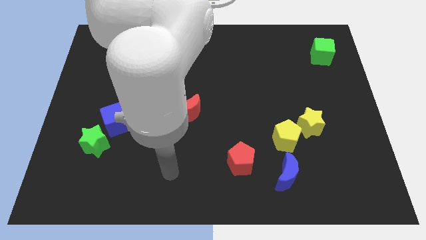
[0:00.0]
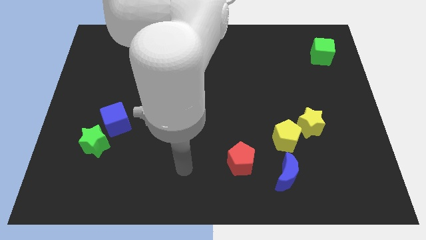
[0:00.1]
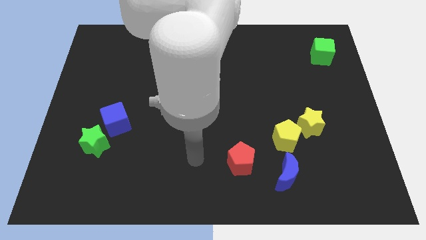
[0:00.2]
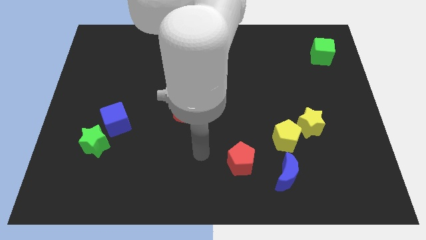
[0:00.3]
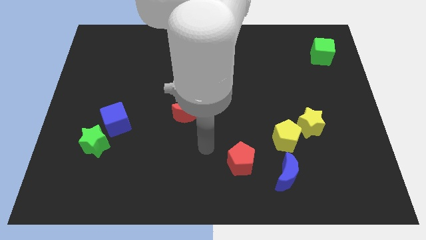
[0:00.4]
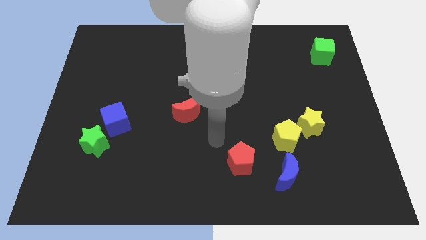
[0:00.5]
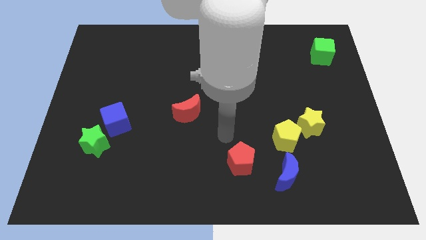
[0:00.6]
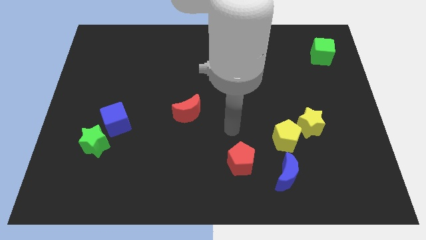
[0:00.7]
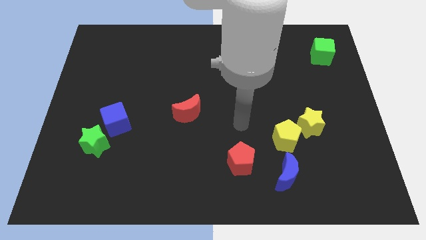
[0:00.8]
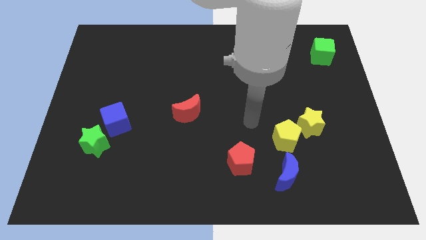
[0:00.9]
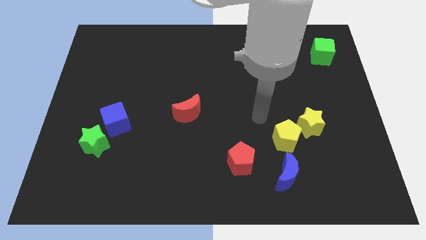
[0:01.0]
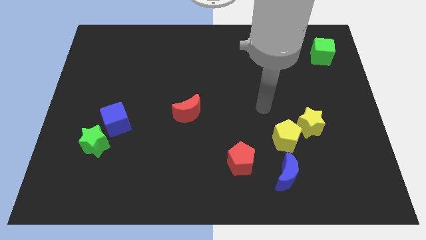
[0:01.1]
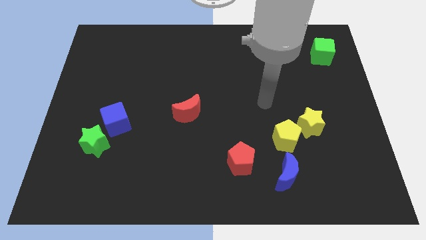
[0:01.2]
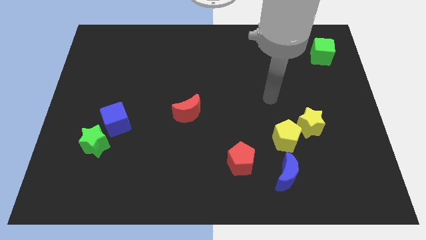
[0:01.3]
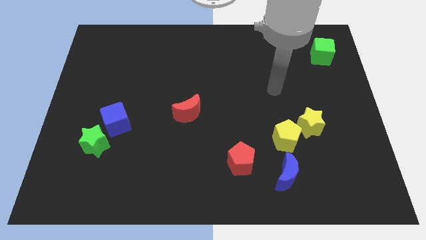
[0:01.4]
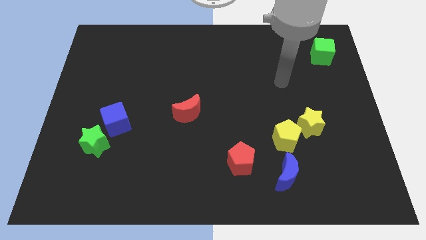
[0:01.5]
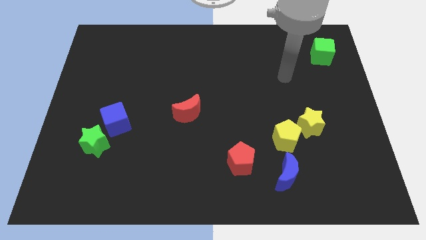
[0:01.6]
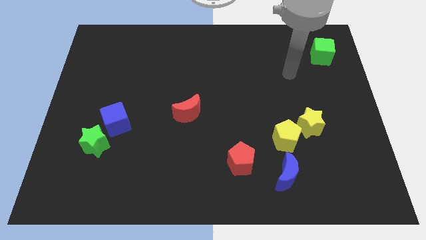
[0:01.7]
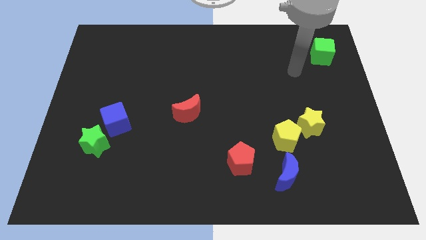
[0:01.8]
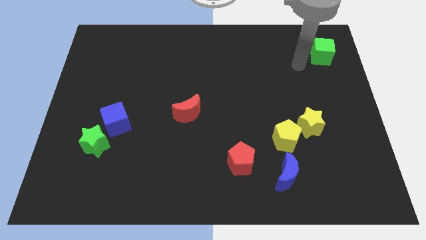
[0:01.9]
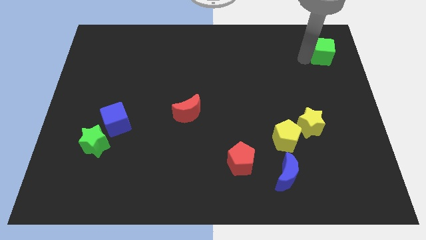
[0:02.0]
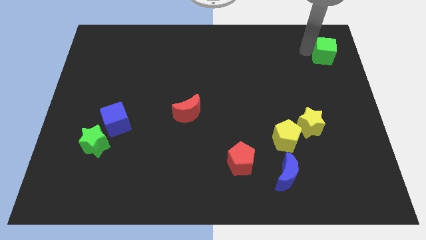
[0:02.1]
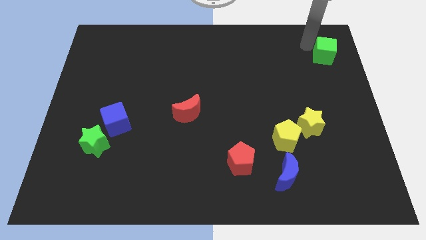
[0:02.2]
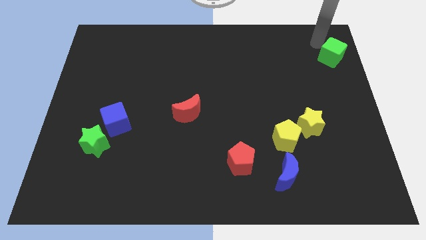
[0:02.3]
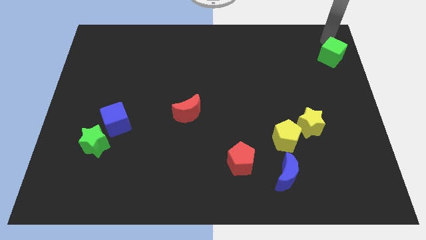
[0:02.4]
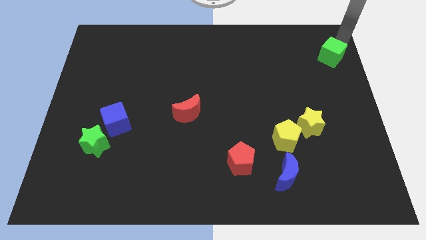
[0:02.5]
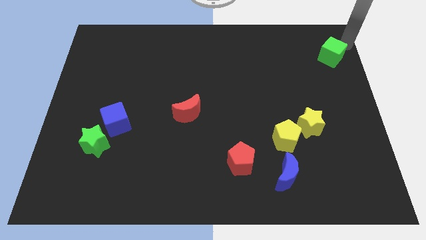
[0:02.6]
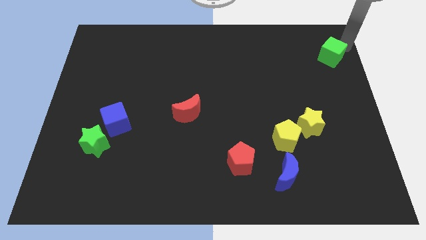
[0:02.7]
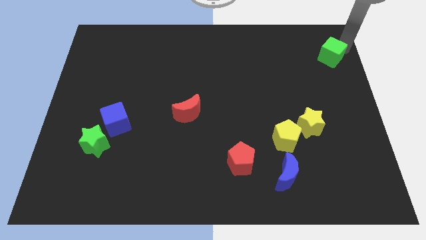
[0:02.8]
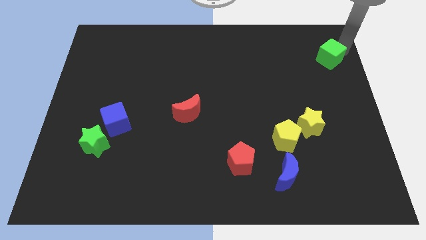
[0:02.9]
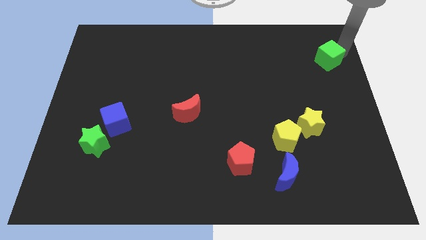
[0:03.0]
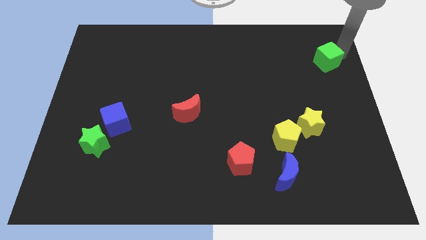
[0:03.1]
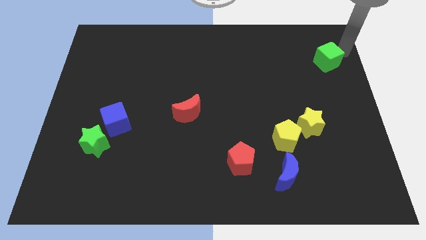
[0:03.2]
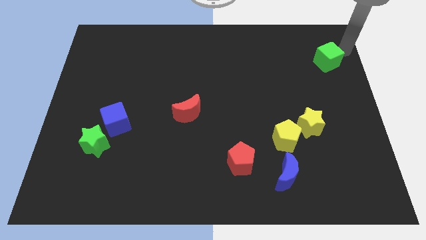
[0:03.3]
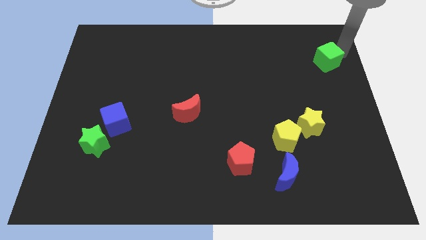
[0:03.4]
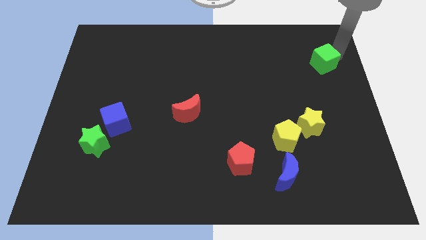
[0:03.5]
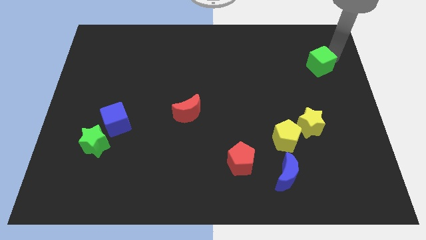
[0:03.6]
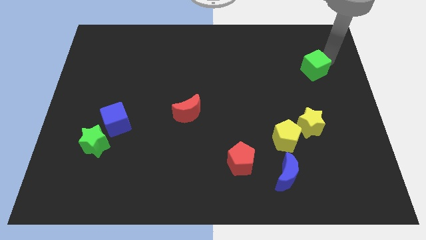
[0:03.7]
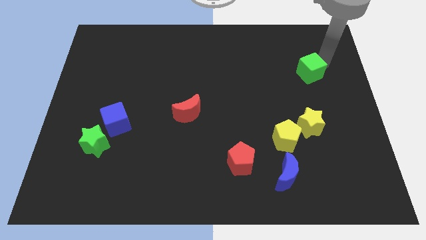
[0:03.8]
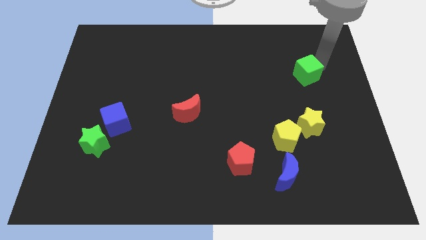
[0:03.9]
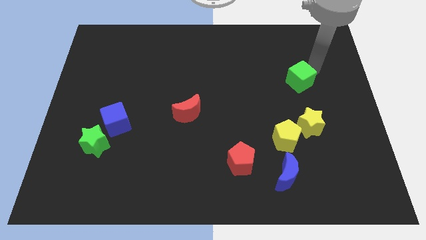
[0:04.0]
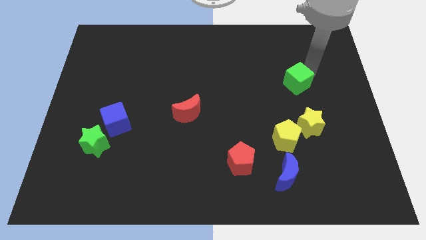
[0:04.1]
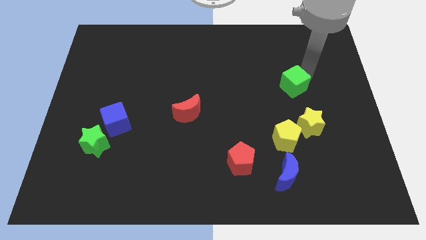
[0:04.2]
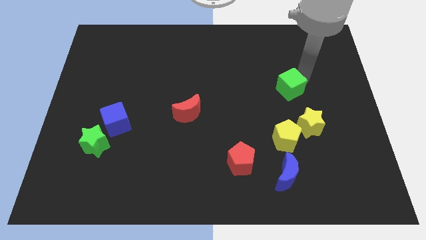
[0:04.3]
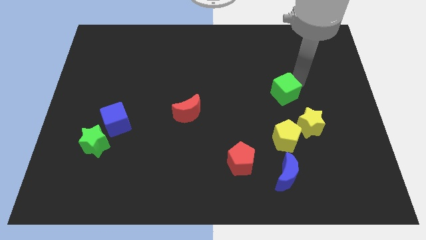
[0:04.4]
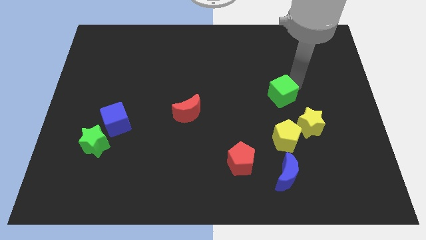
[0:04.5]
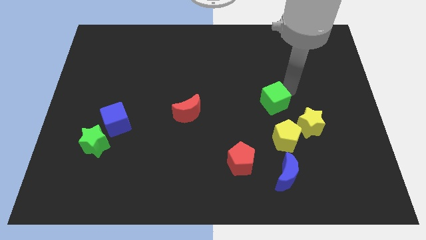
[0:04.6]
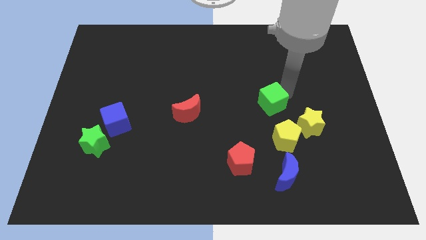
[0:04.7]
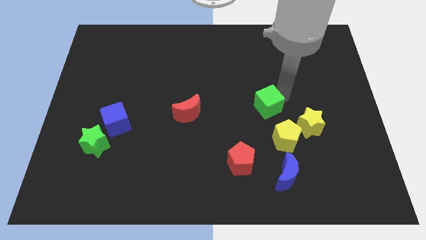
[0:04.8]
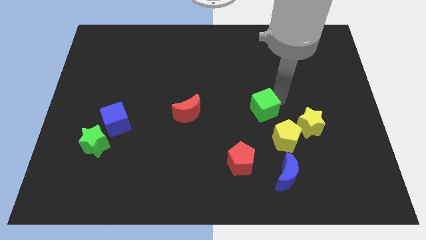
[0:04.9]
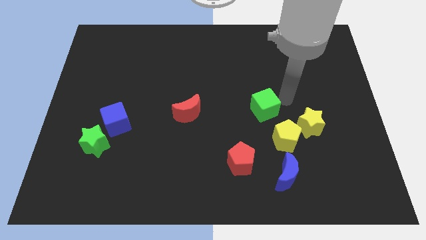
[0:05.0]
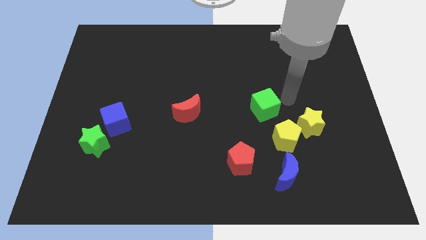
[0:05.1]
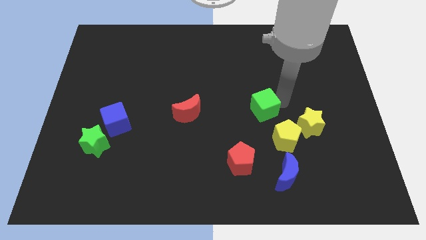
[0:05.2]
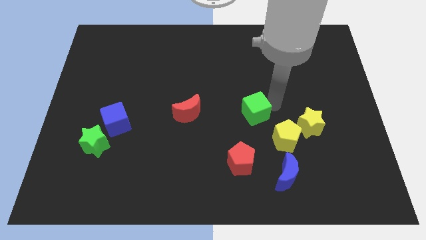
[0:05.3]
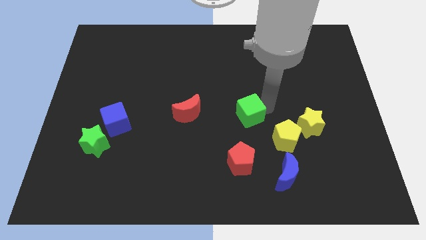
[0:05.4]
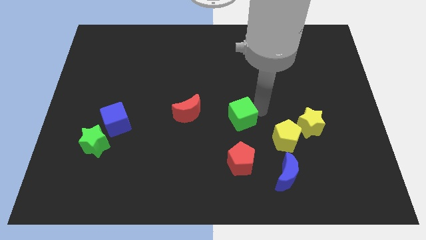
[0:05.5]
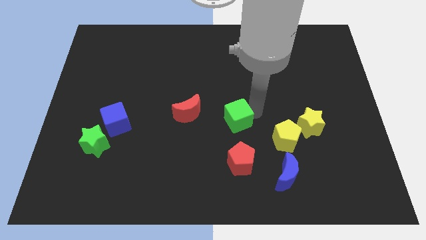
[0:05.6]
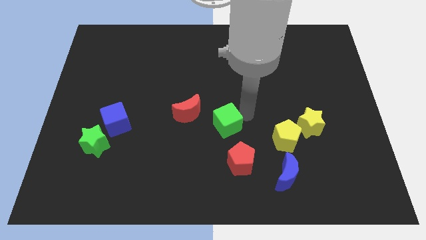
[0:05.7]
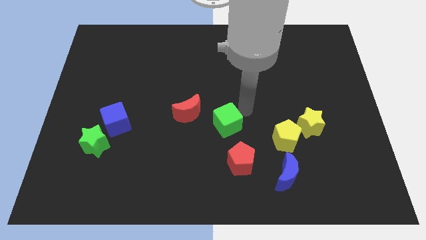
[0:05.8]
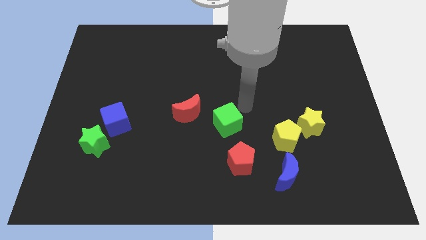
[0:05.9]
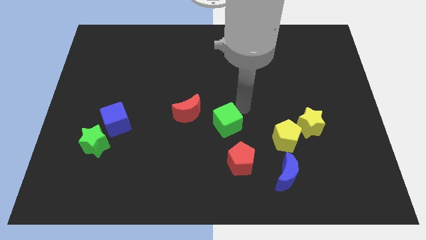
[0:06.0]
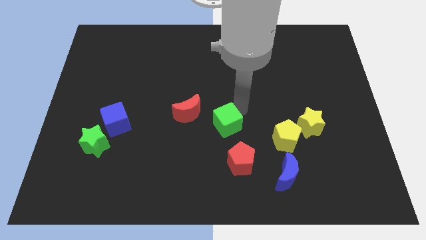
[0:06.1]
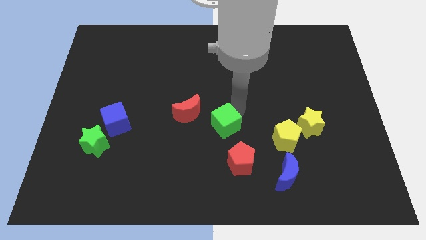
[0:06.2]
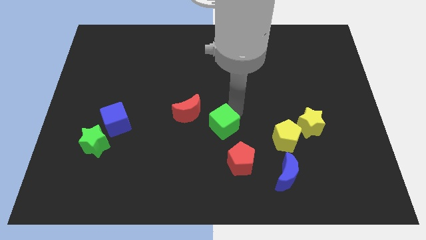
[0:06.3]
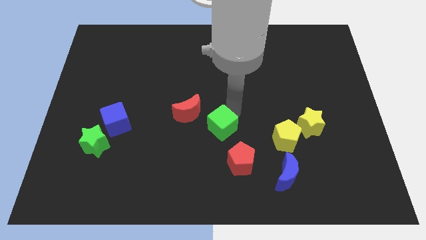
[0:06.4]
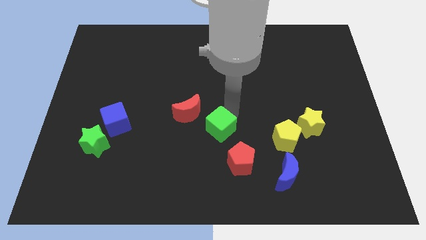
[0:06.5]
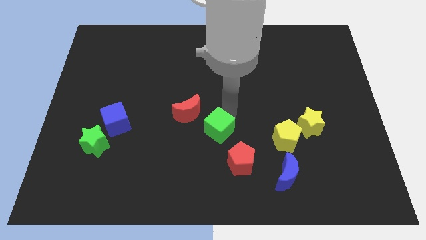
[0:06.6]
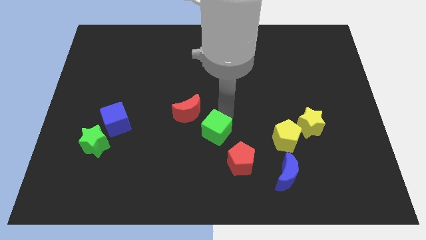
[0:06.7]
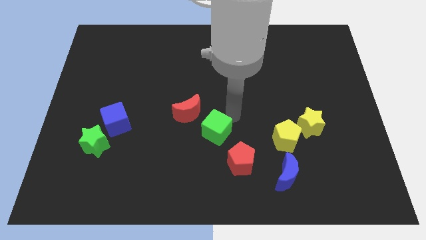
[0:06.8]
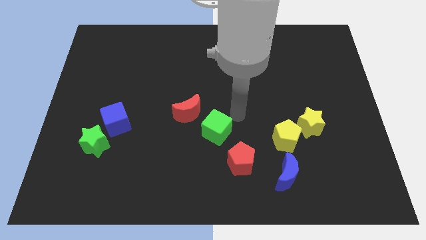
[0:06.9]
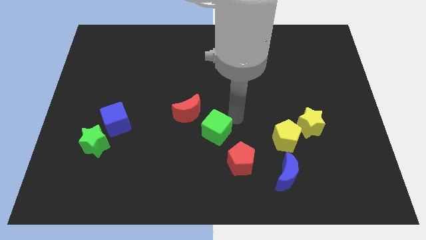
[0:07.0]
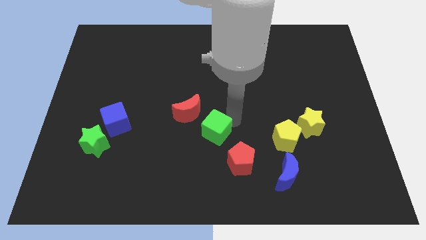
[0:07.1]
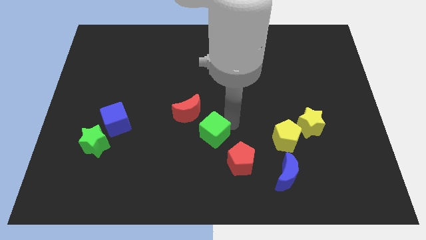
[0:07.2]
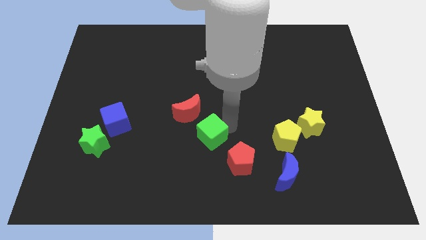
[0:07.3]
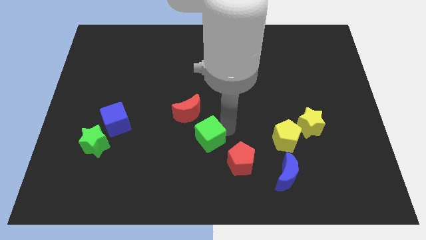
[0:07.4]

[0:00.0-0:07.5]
slide the green cube to the bottom of the red moon
